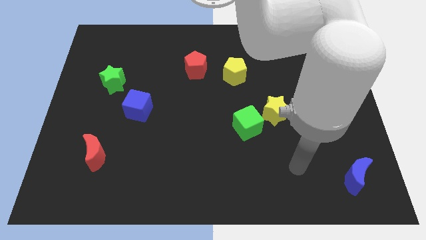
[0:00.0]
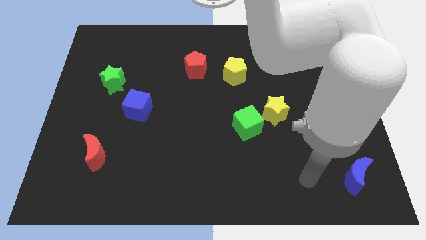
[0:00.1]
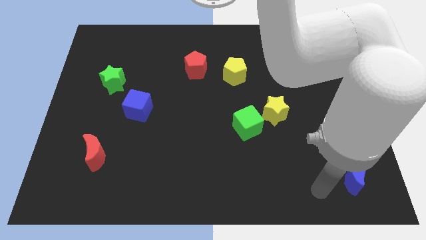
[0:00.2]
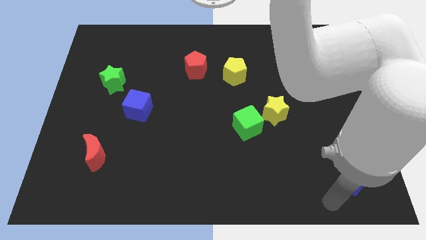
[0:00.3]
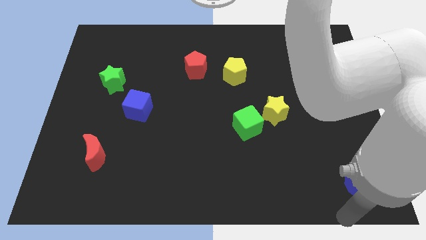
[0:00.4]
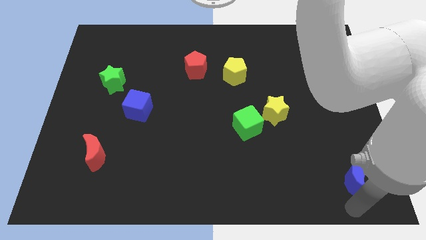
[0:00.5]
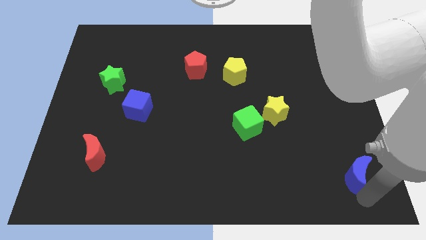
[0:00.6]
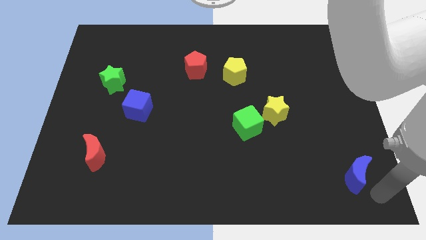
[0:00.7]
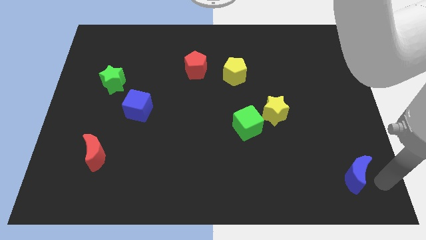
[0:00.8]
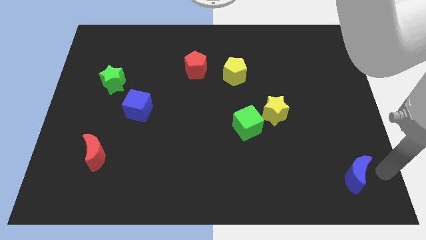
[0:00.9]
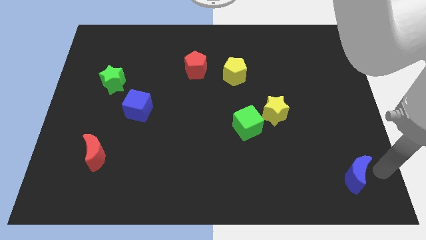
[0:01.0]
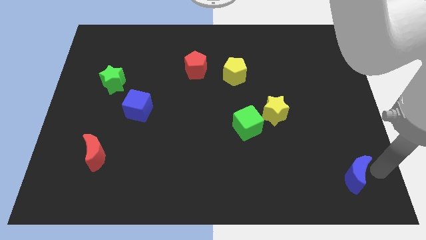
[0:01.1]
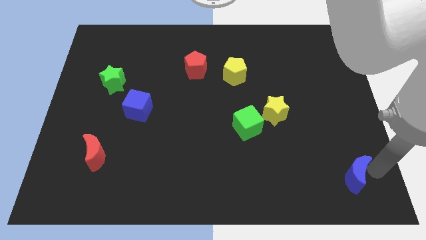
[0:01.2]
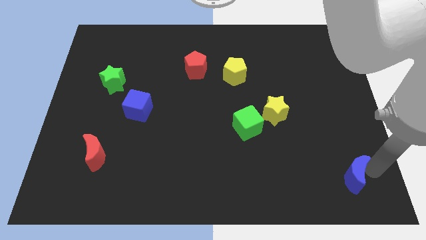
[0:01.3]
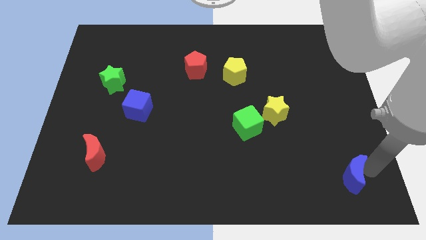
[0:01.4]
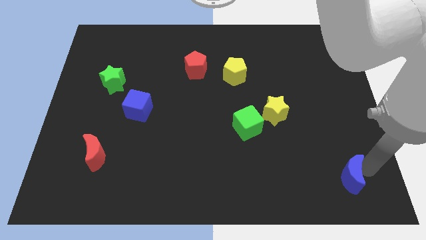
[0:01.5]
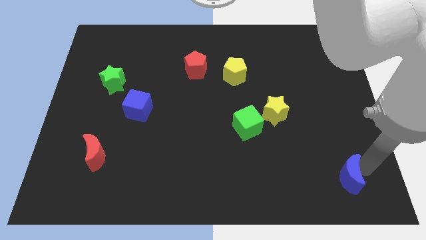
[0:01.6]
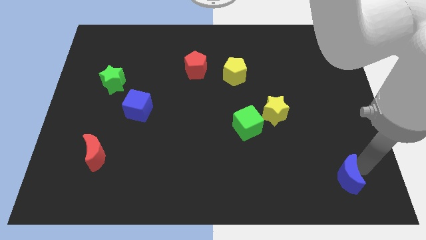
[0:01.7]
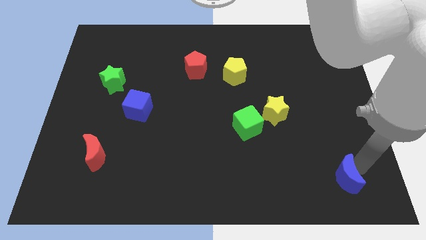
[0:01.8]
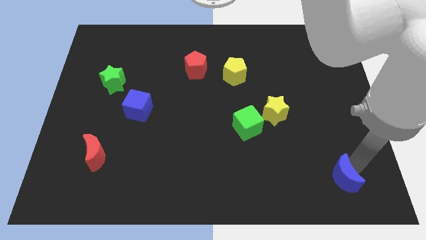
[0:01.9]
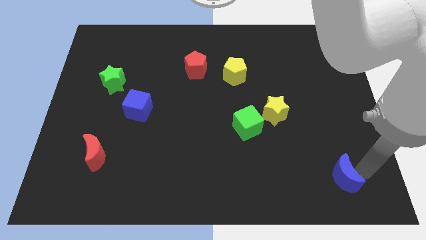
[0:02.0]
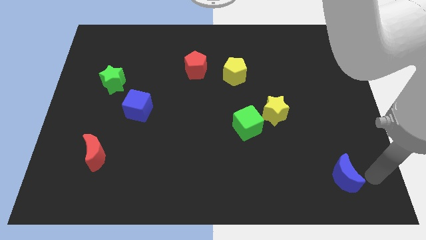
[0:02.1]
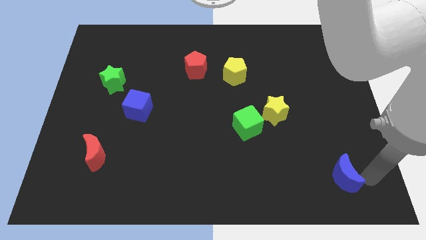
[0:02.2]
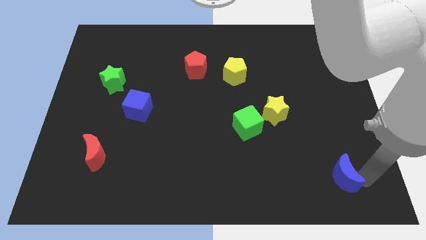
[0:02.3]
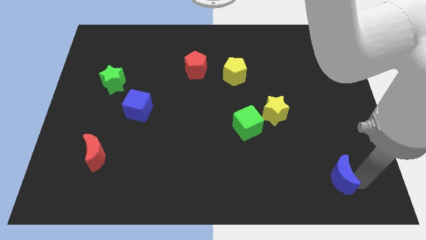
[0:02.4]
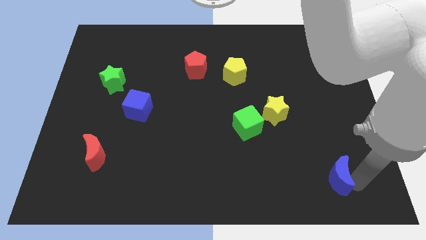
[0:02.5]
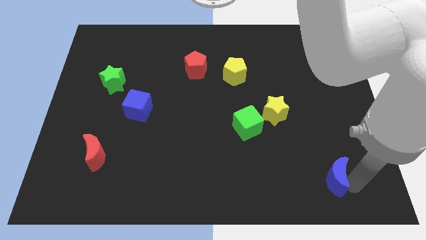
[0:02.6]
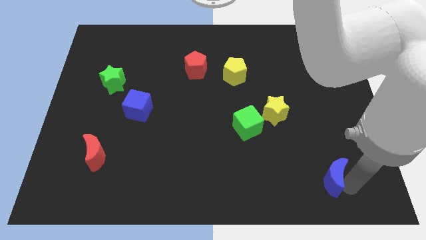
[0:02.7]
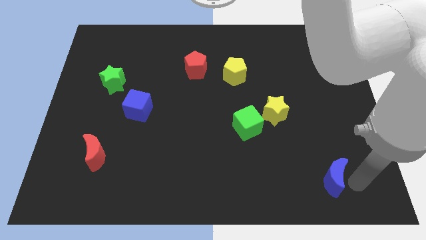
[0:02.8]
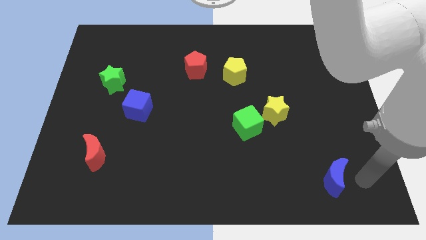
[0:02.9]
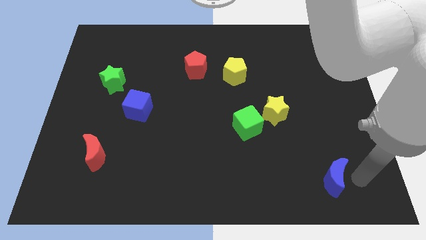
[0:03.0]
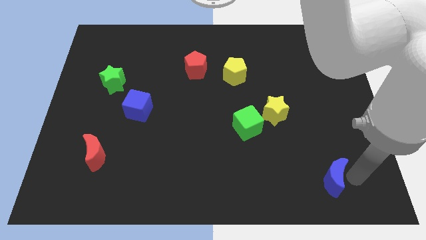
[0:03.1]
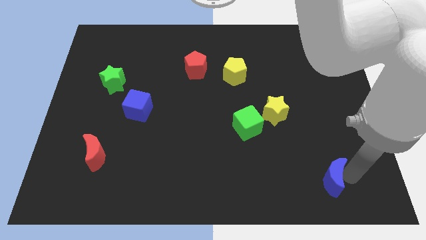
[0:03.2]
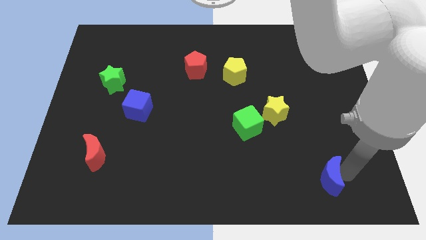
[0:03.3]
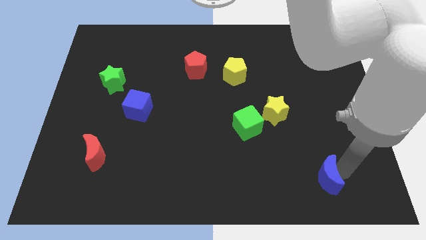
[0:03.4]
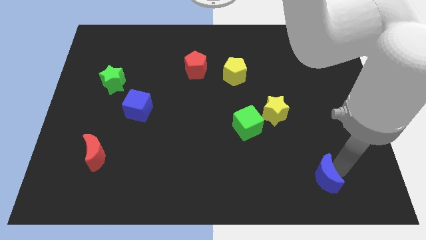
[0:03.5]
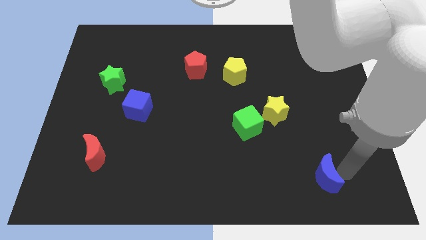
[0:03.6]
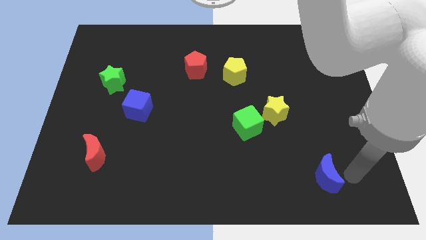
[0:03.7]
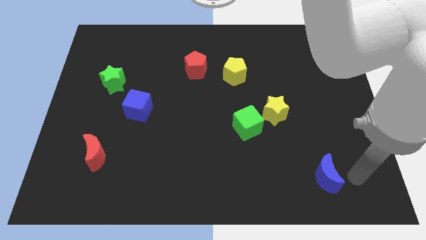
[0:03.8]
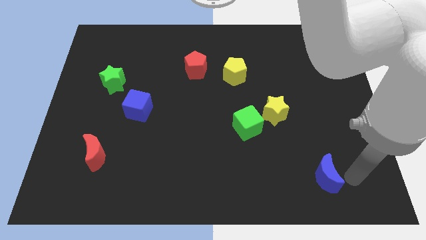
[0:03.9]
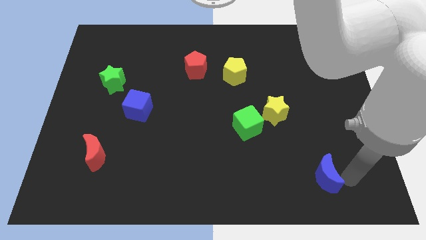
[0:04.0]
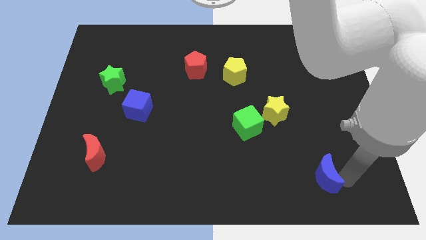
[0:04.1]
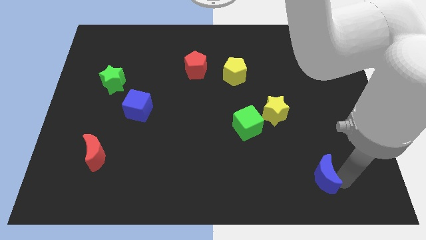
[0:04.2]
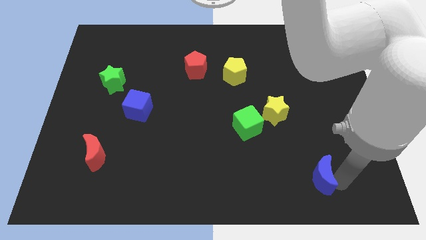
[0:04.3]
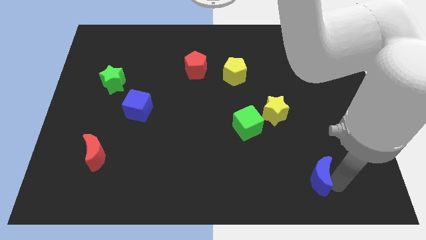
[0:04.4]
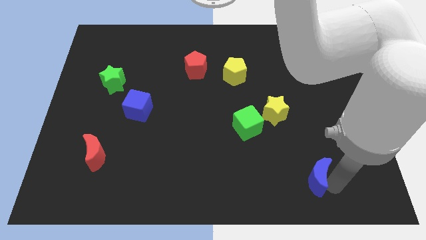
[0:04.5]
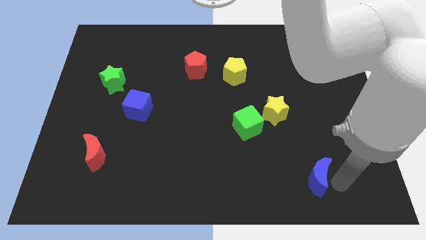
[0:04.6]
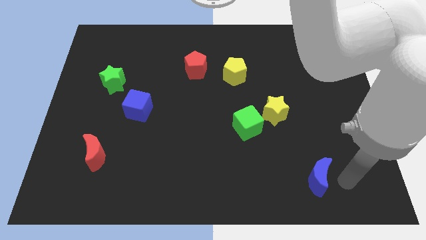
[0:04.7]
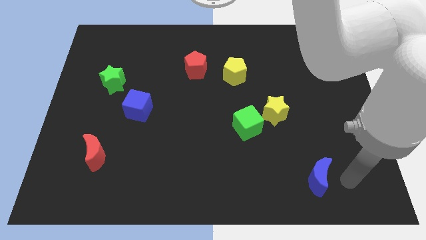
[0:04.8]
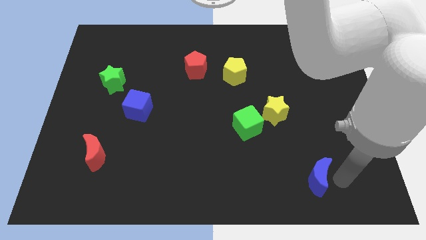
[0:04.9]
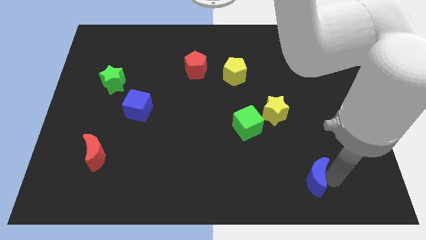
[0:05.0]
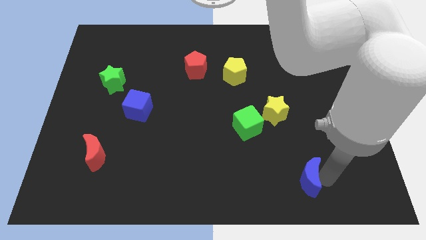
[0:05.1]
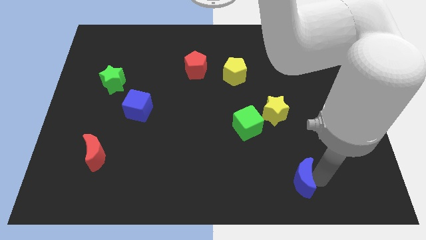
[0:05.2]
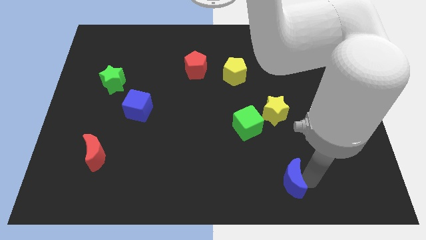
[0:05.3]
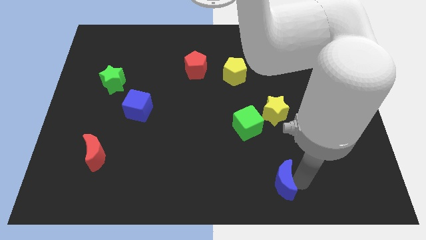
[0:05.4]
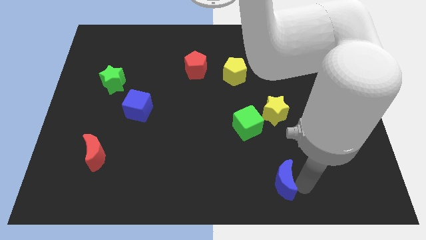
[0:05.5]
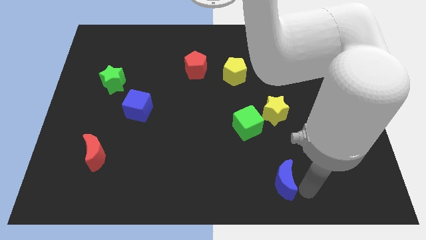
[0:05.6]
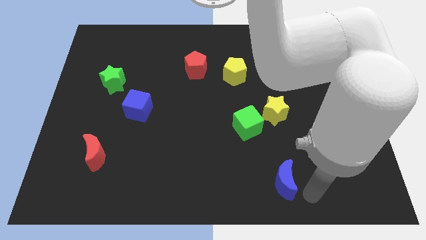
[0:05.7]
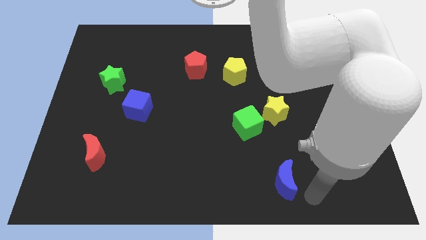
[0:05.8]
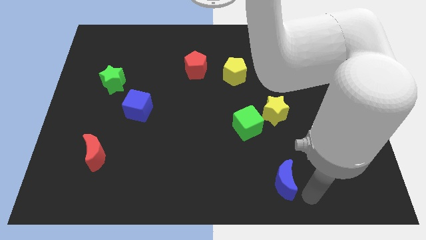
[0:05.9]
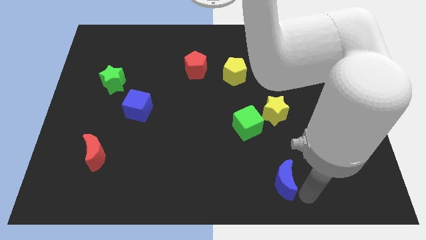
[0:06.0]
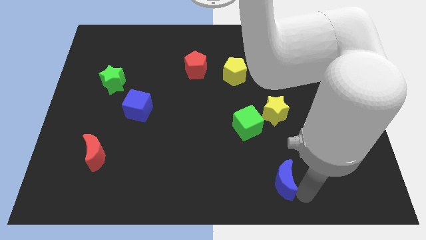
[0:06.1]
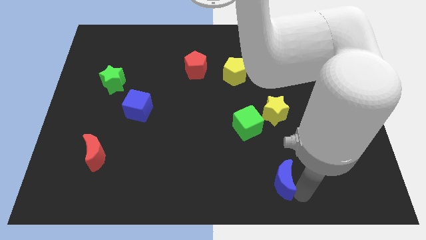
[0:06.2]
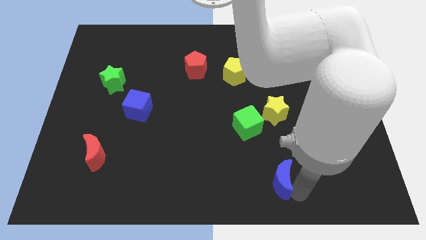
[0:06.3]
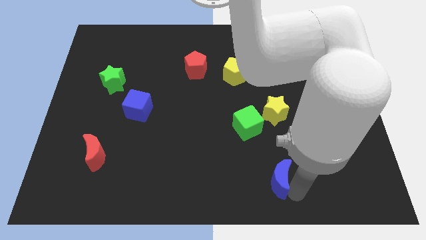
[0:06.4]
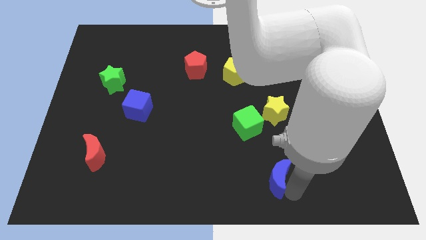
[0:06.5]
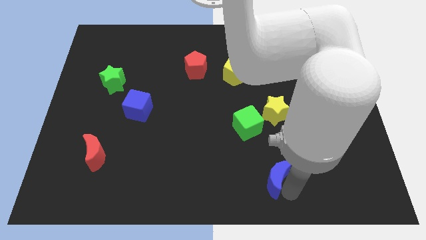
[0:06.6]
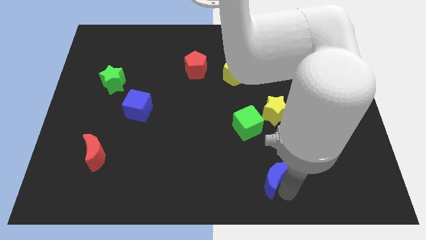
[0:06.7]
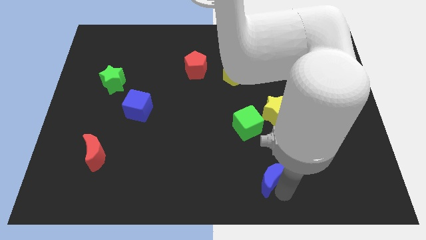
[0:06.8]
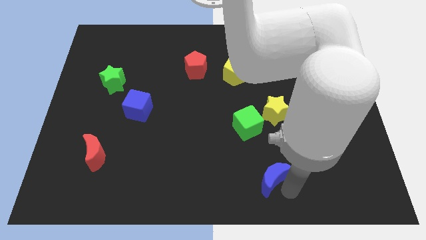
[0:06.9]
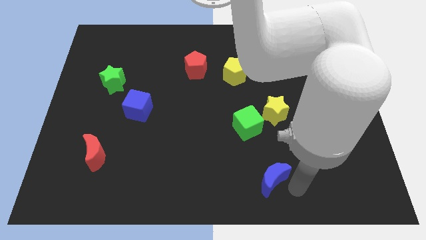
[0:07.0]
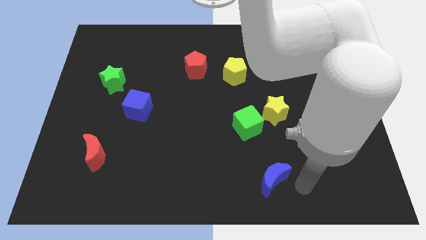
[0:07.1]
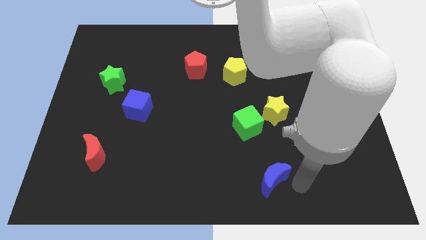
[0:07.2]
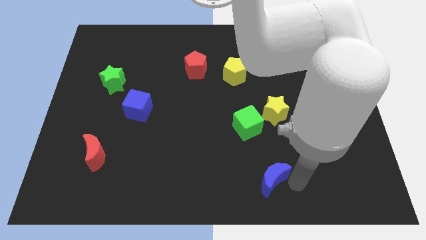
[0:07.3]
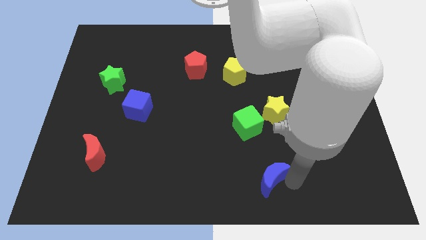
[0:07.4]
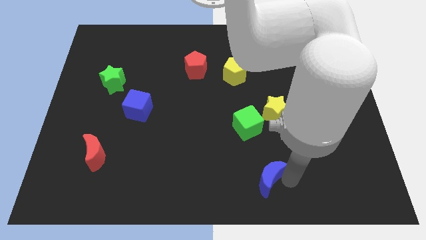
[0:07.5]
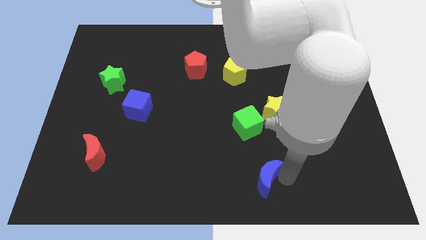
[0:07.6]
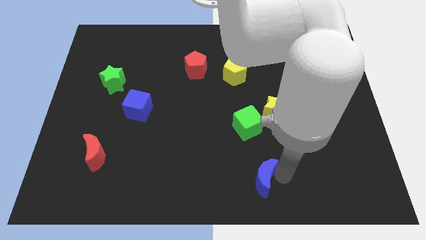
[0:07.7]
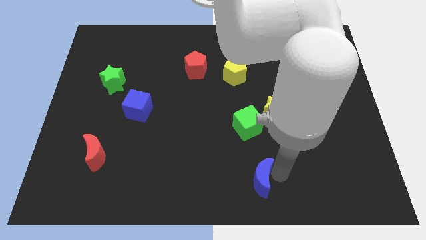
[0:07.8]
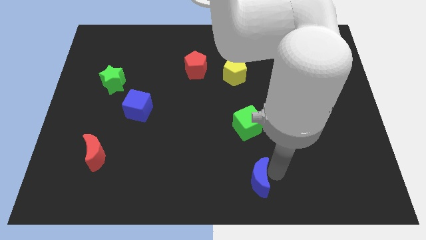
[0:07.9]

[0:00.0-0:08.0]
slide the blue moon to the left
